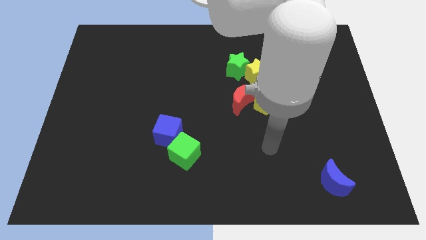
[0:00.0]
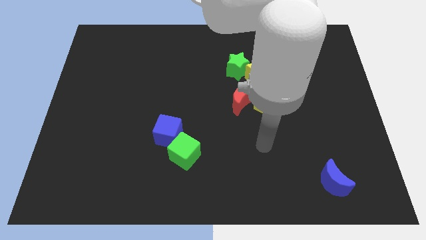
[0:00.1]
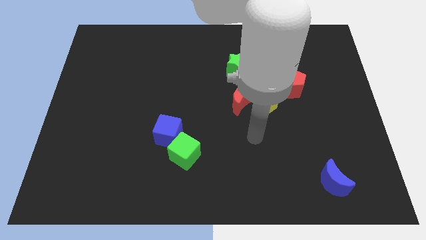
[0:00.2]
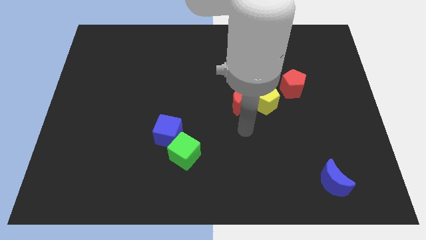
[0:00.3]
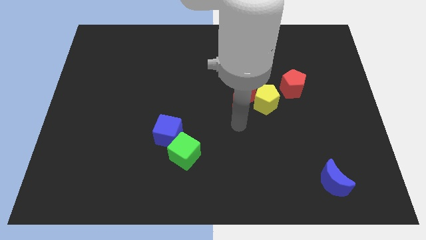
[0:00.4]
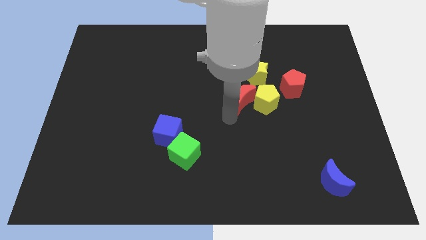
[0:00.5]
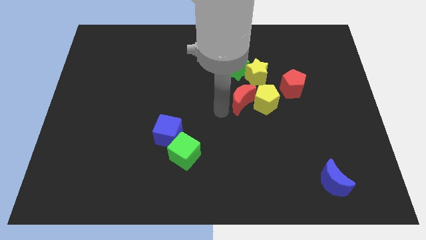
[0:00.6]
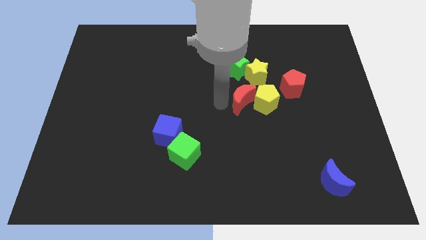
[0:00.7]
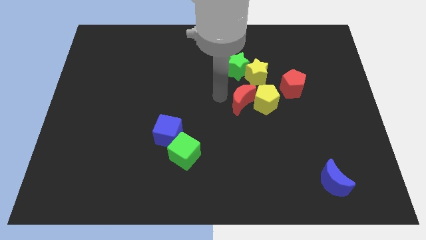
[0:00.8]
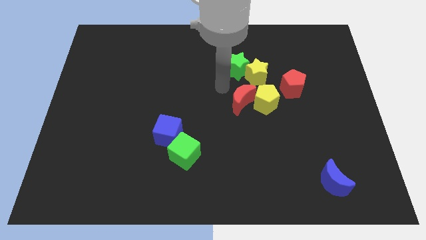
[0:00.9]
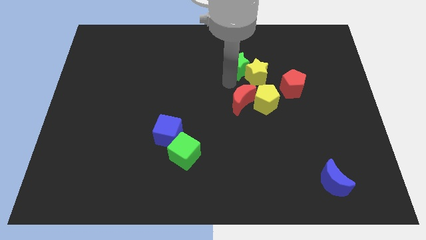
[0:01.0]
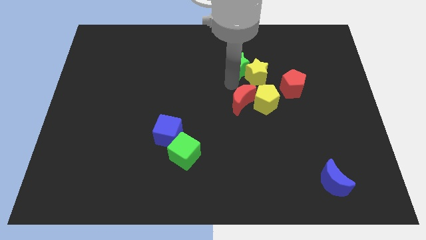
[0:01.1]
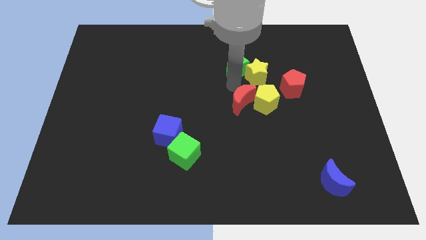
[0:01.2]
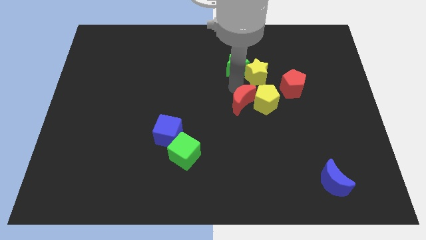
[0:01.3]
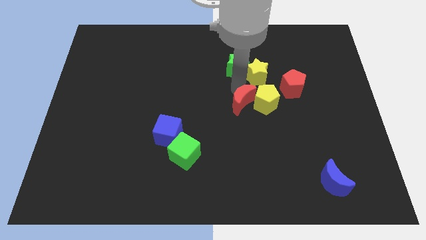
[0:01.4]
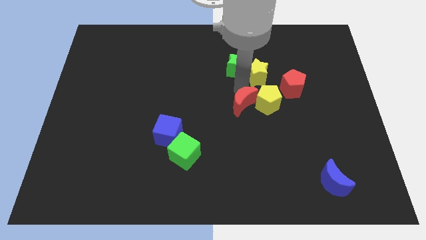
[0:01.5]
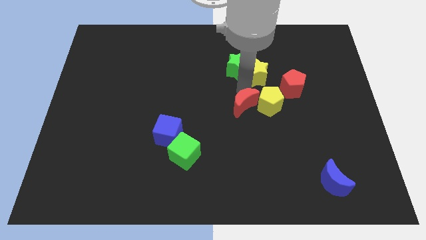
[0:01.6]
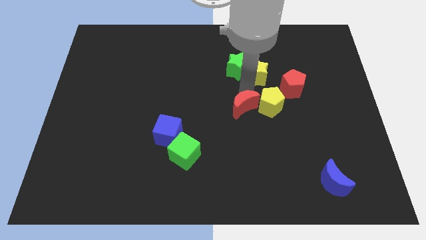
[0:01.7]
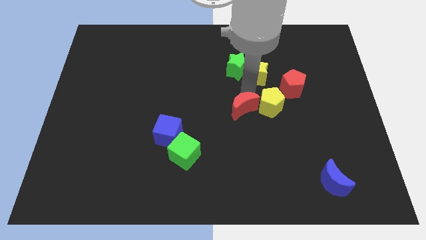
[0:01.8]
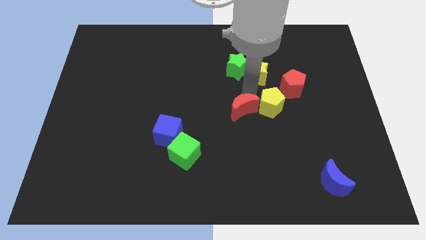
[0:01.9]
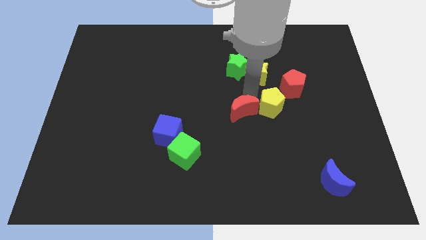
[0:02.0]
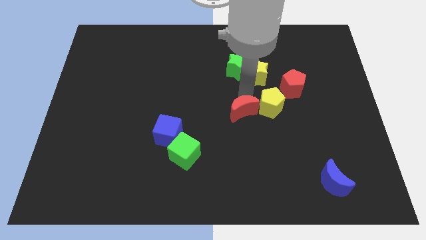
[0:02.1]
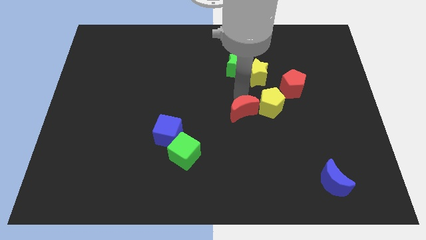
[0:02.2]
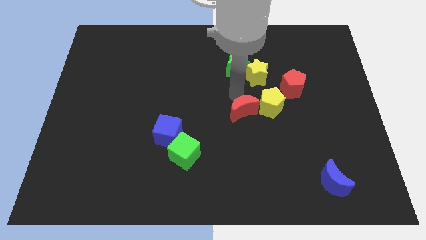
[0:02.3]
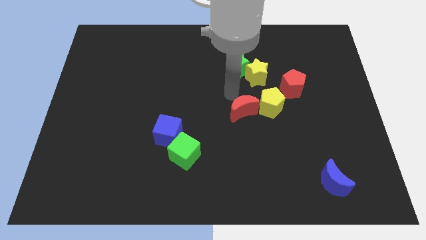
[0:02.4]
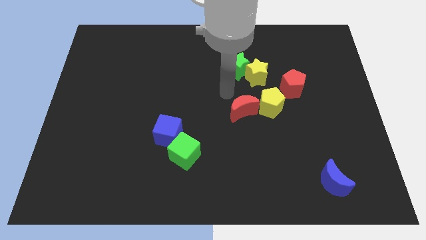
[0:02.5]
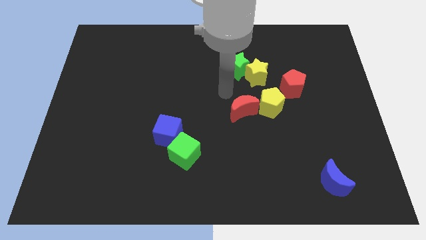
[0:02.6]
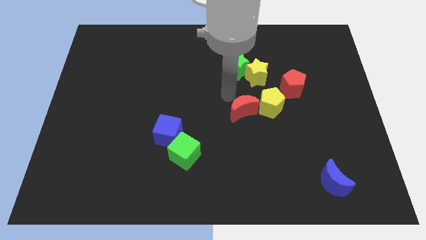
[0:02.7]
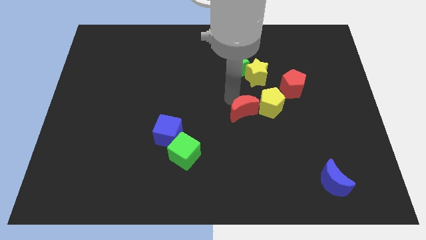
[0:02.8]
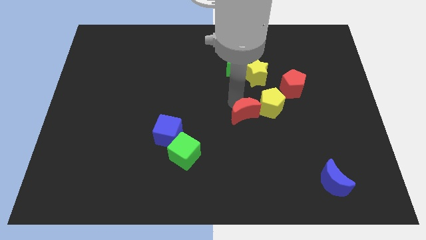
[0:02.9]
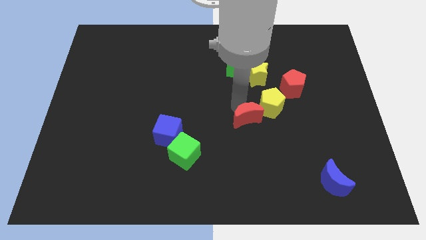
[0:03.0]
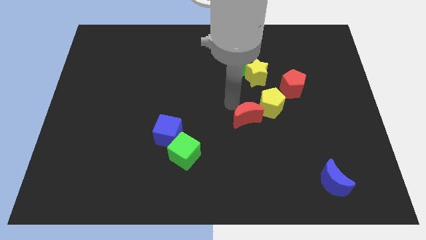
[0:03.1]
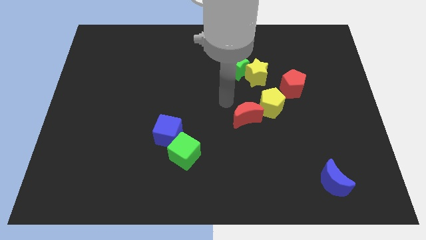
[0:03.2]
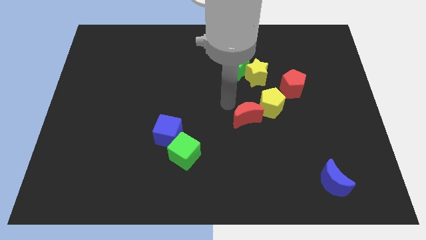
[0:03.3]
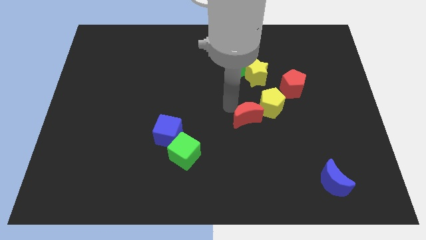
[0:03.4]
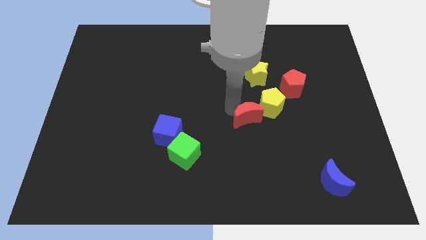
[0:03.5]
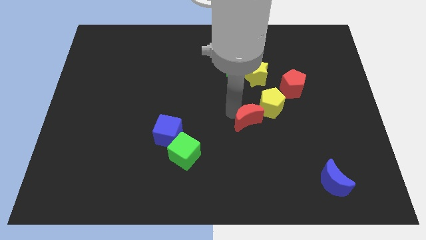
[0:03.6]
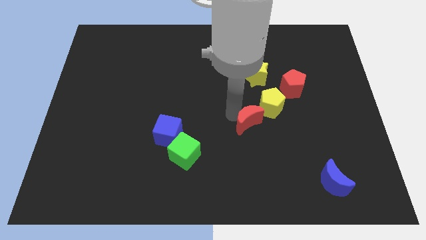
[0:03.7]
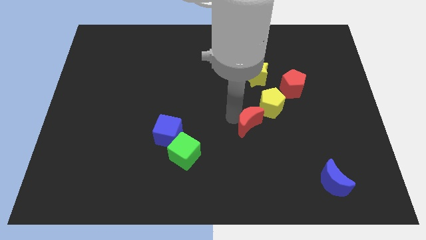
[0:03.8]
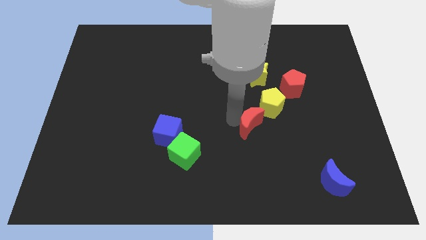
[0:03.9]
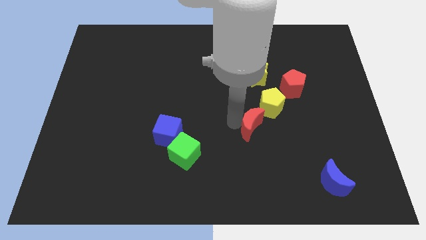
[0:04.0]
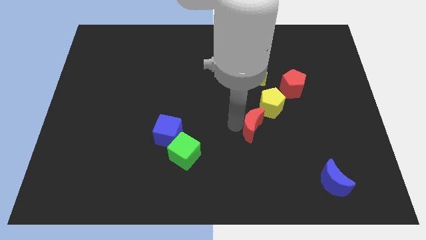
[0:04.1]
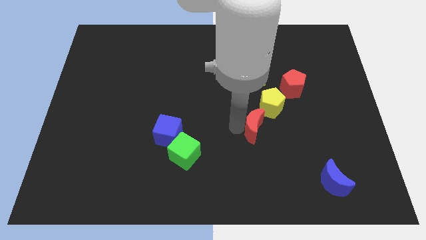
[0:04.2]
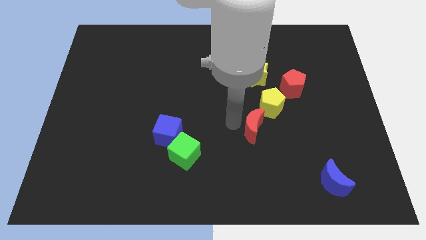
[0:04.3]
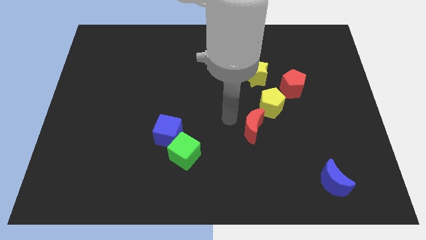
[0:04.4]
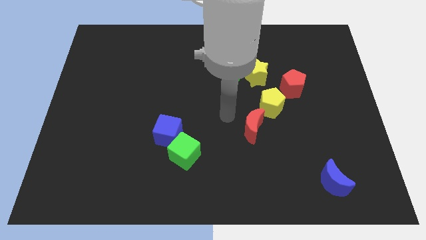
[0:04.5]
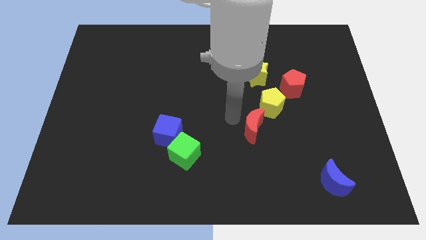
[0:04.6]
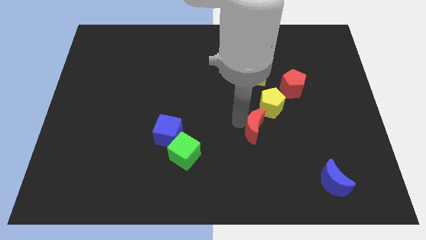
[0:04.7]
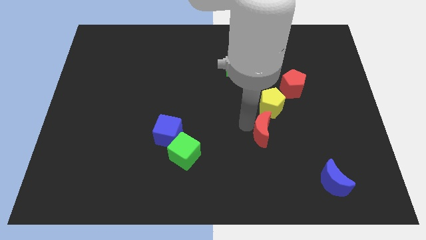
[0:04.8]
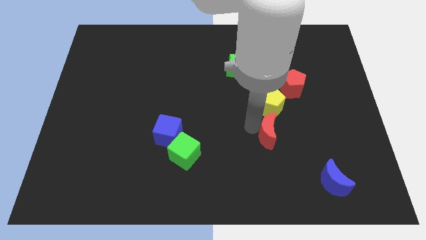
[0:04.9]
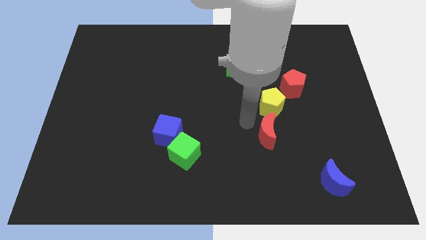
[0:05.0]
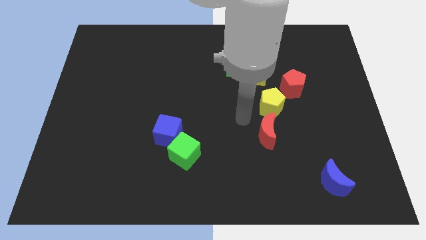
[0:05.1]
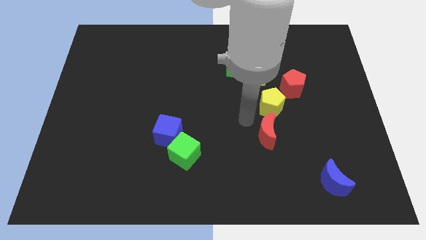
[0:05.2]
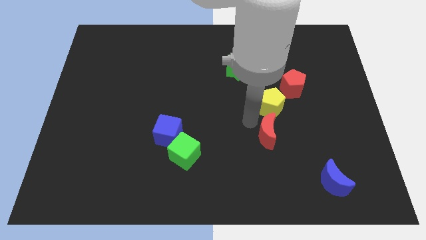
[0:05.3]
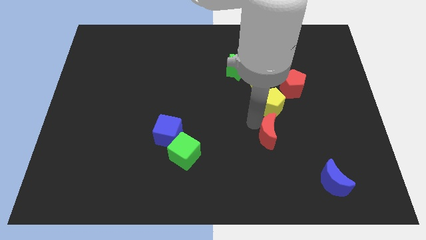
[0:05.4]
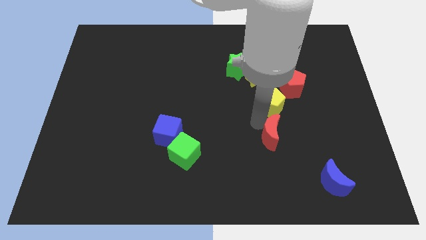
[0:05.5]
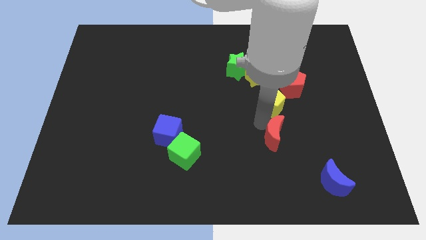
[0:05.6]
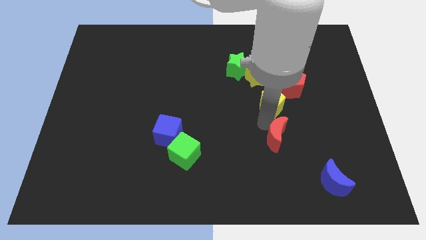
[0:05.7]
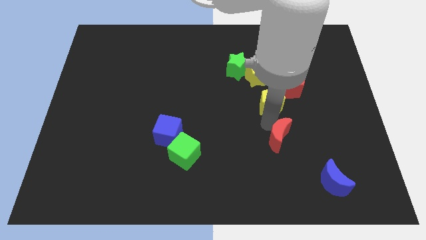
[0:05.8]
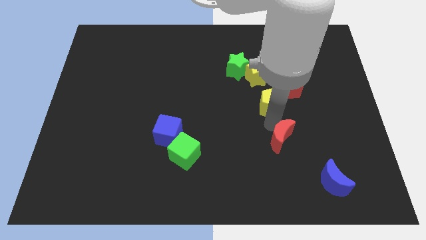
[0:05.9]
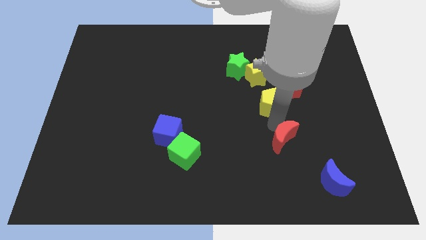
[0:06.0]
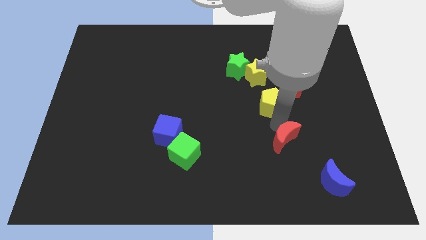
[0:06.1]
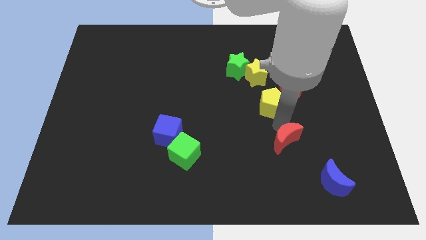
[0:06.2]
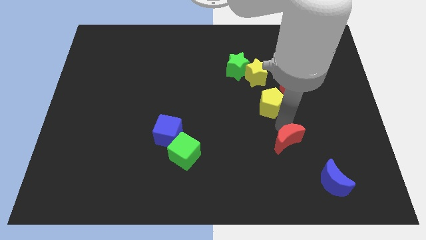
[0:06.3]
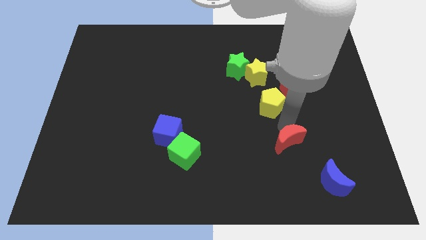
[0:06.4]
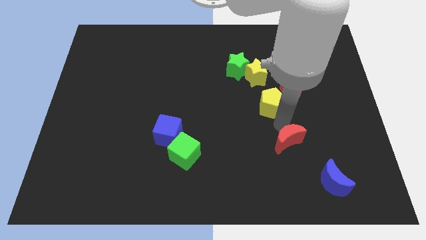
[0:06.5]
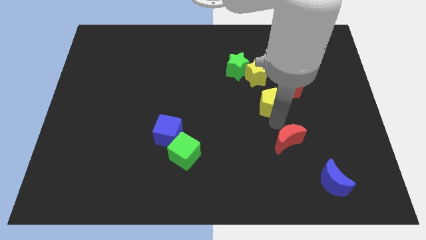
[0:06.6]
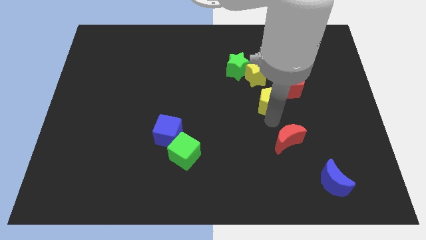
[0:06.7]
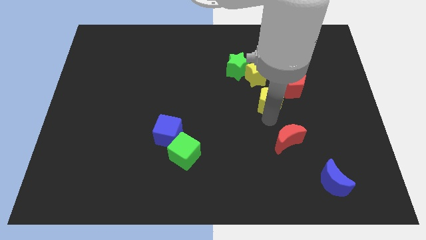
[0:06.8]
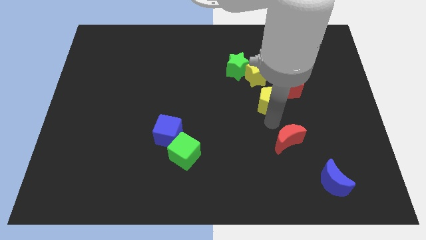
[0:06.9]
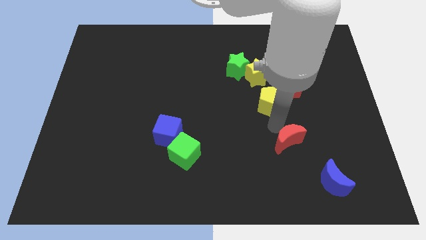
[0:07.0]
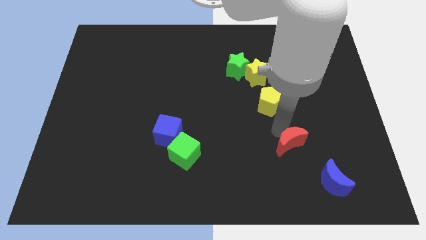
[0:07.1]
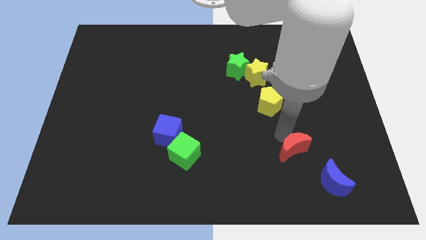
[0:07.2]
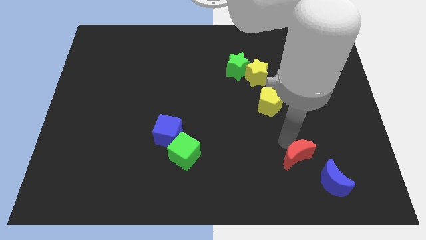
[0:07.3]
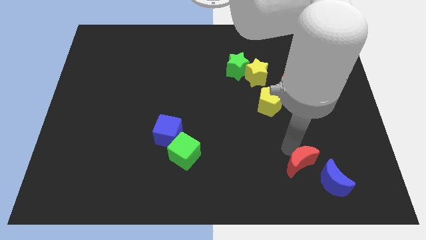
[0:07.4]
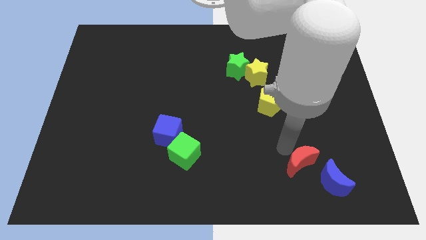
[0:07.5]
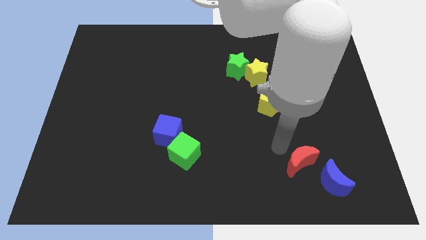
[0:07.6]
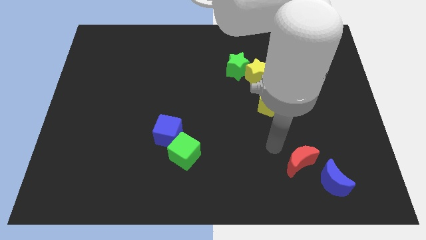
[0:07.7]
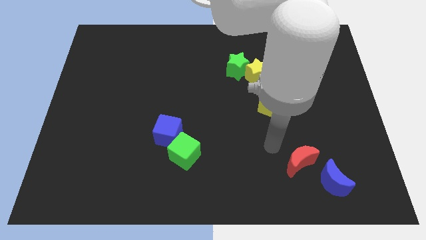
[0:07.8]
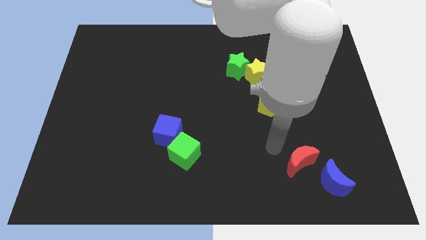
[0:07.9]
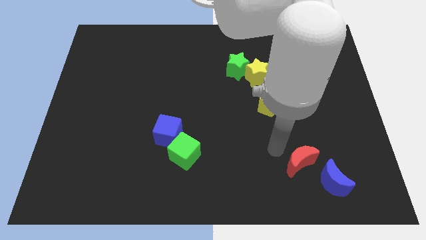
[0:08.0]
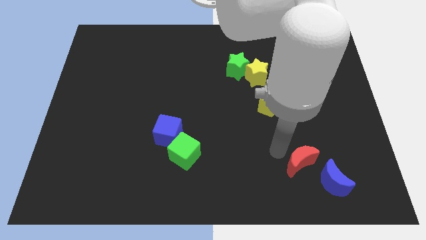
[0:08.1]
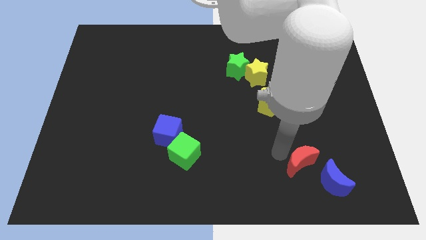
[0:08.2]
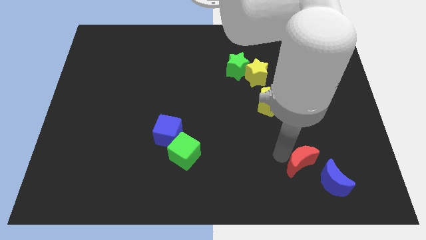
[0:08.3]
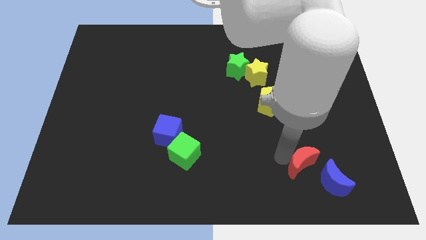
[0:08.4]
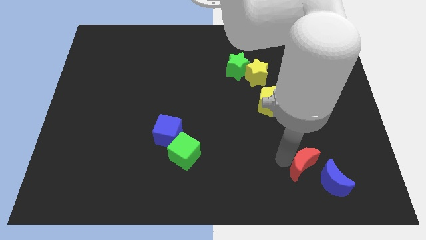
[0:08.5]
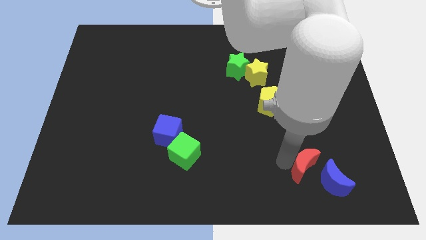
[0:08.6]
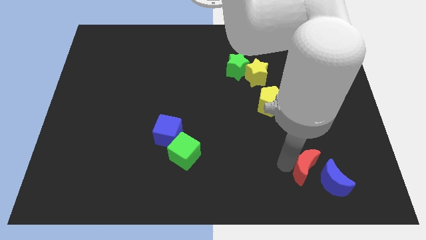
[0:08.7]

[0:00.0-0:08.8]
put the red moon close to the blue moon
